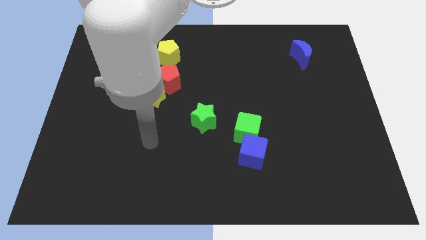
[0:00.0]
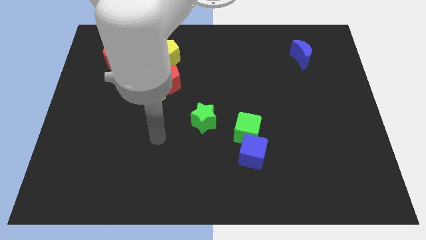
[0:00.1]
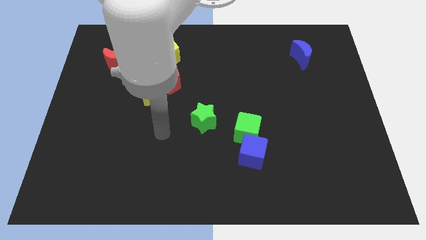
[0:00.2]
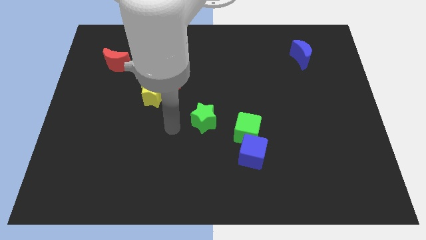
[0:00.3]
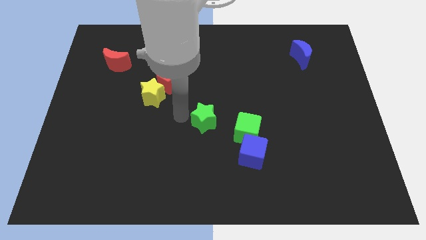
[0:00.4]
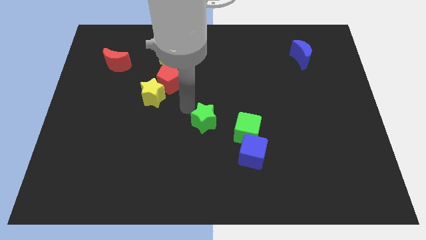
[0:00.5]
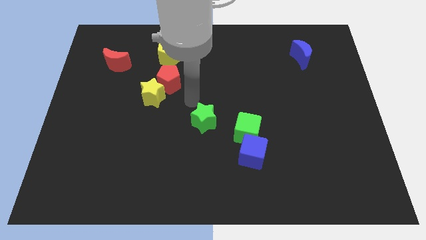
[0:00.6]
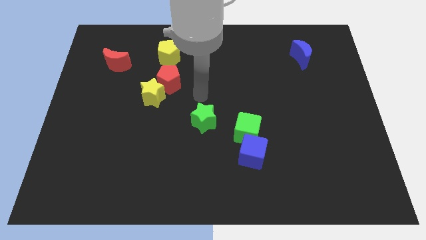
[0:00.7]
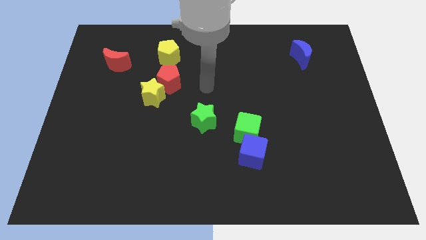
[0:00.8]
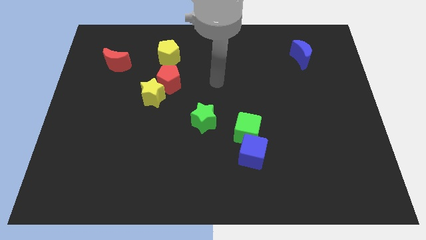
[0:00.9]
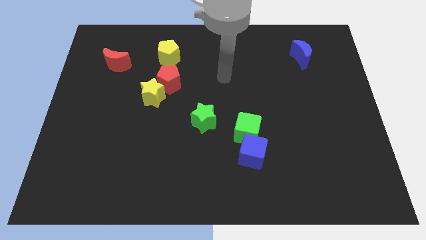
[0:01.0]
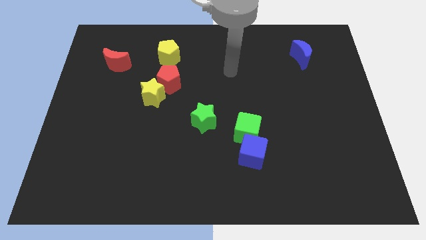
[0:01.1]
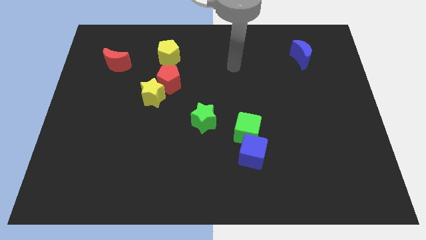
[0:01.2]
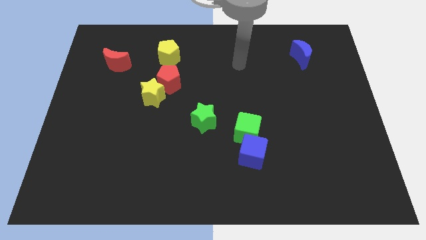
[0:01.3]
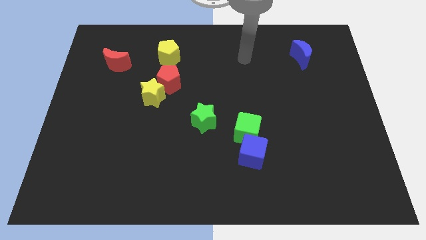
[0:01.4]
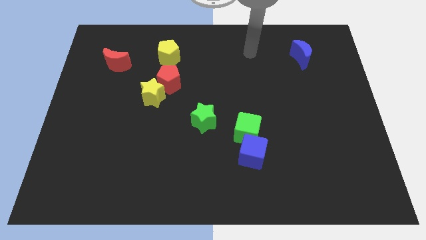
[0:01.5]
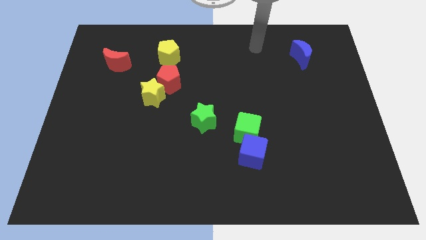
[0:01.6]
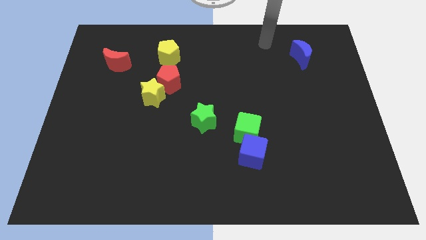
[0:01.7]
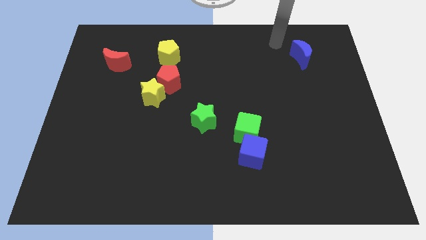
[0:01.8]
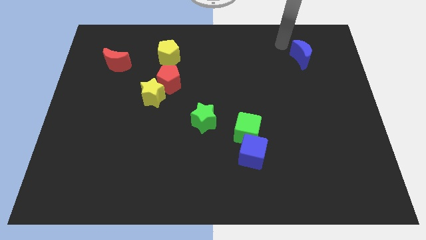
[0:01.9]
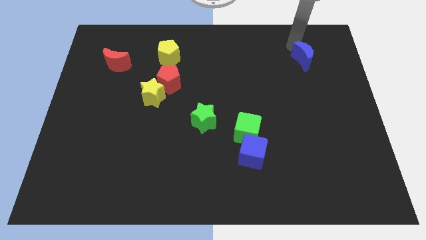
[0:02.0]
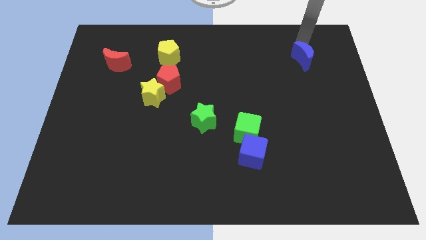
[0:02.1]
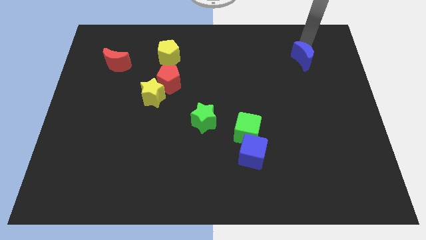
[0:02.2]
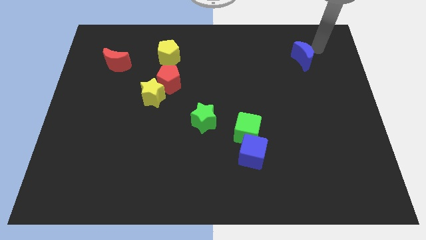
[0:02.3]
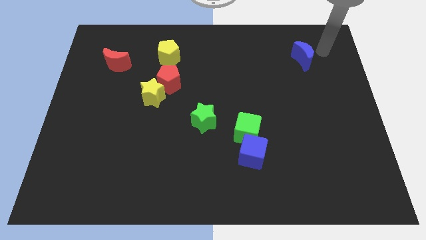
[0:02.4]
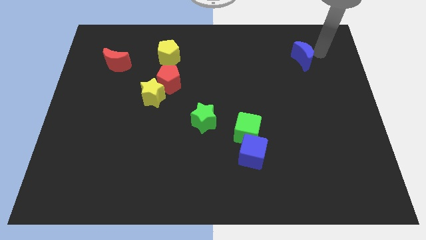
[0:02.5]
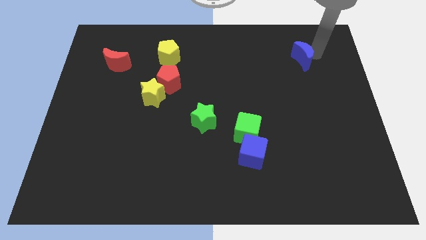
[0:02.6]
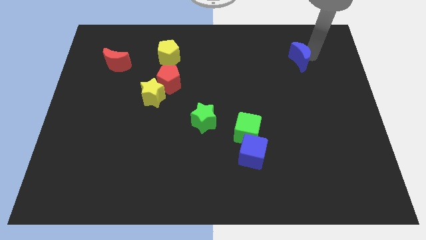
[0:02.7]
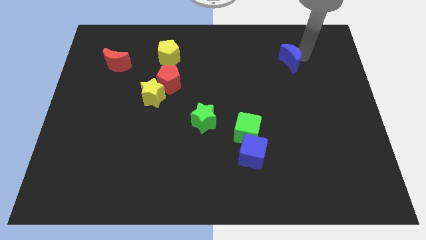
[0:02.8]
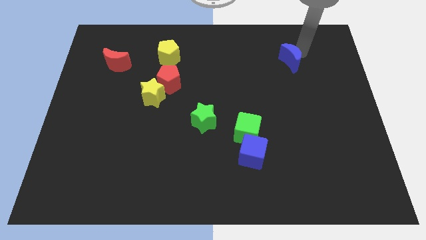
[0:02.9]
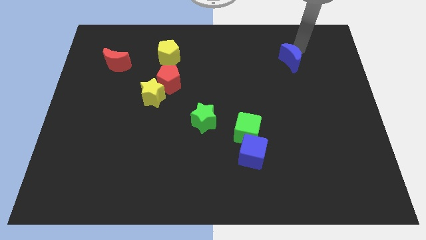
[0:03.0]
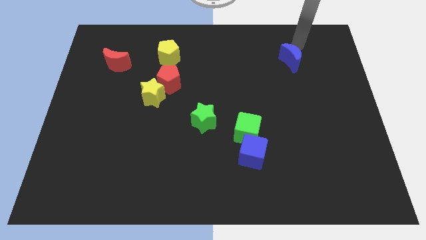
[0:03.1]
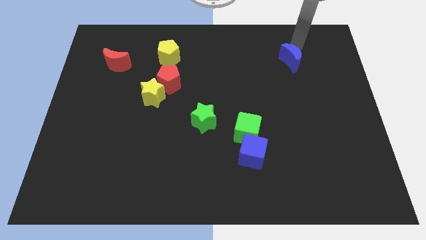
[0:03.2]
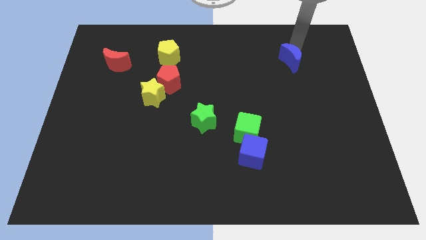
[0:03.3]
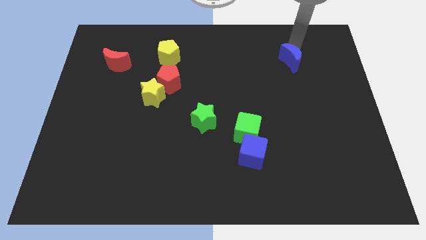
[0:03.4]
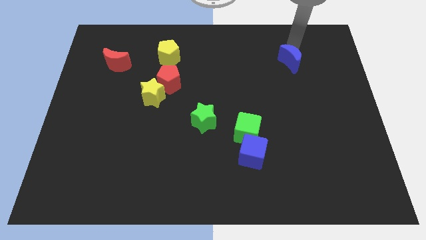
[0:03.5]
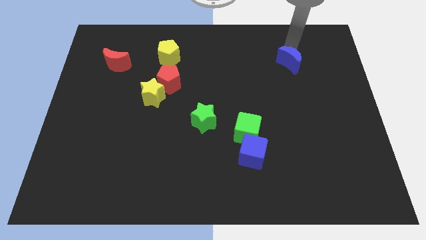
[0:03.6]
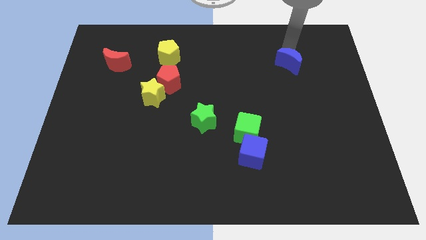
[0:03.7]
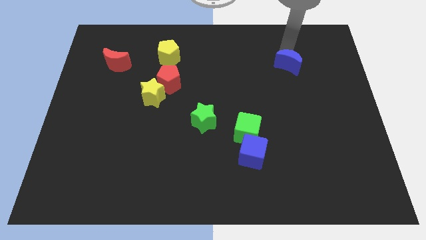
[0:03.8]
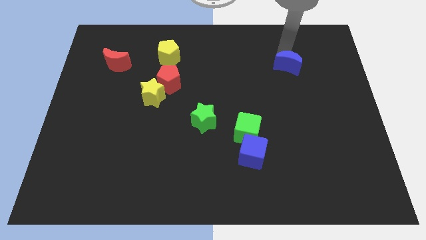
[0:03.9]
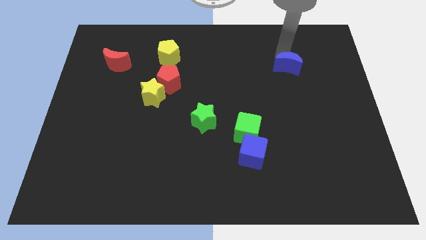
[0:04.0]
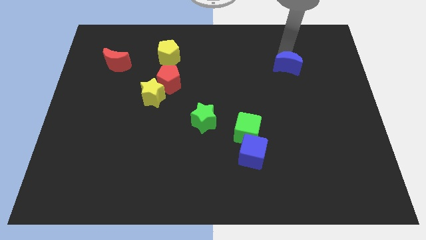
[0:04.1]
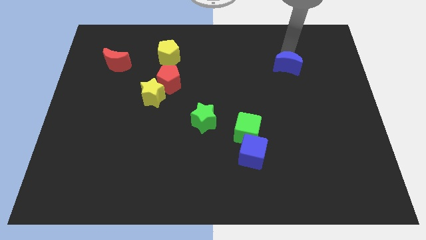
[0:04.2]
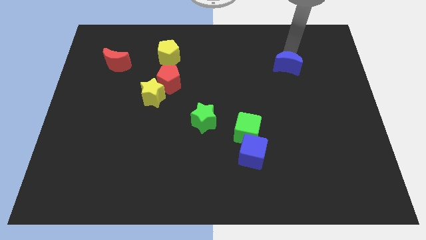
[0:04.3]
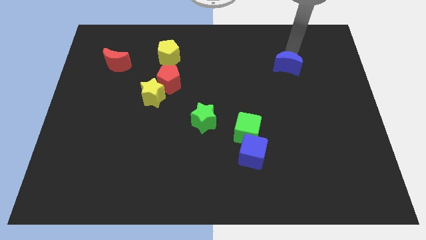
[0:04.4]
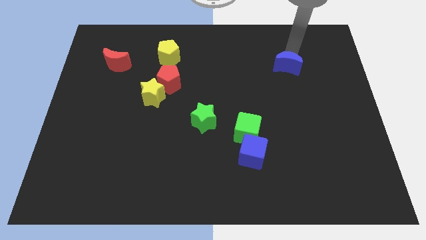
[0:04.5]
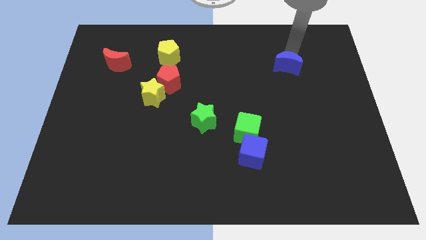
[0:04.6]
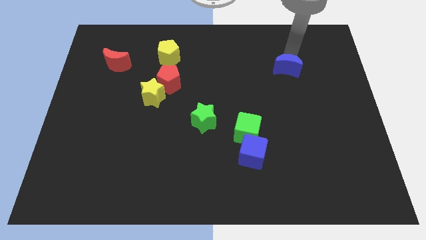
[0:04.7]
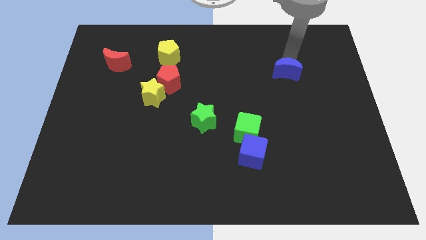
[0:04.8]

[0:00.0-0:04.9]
move the blue moon slightly downwards and to the left diagonally

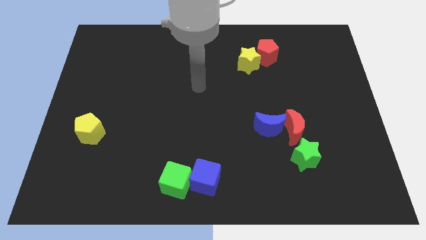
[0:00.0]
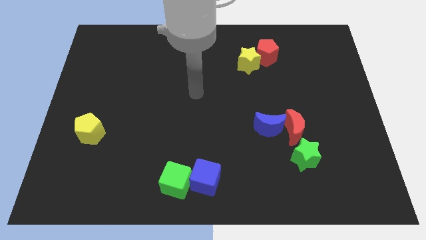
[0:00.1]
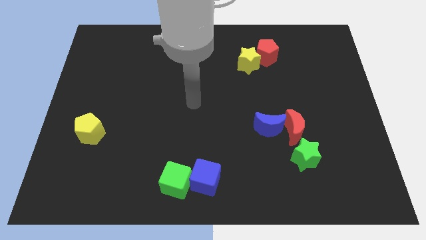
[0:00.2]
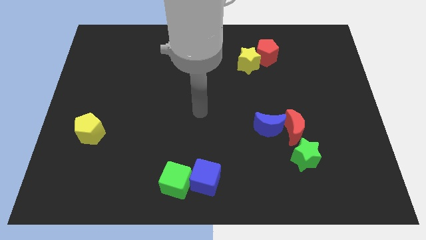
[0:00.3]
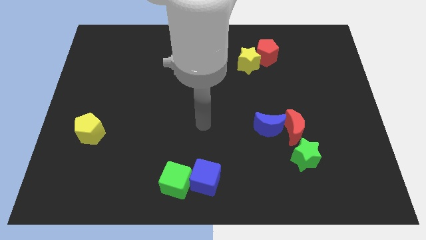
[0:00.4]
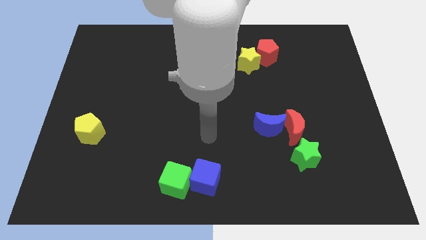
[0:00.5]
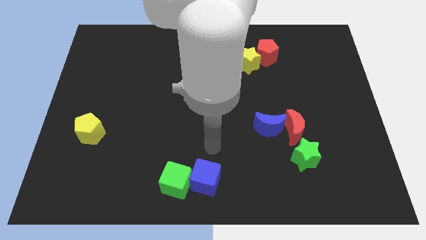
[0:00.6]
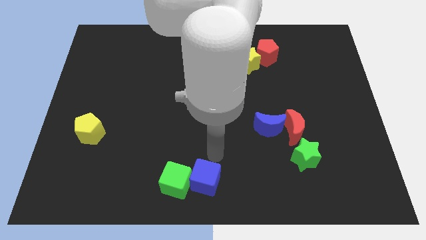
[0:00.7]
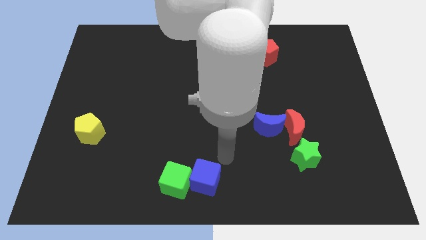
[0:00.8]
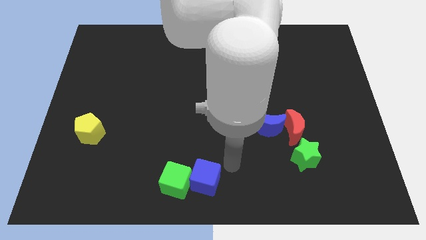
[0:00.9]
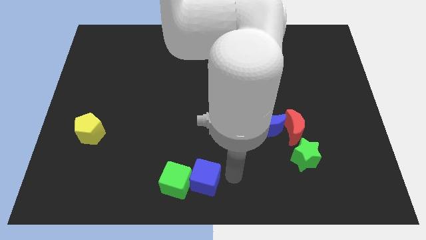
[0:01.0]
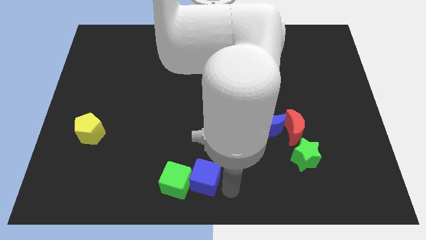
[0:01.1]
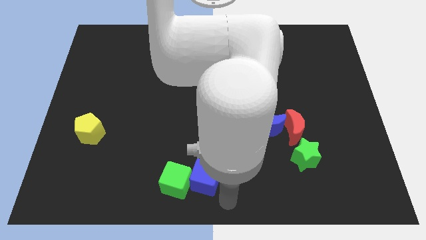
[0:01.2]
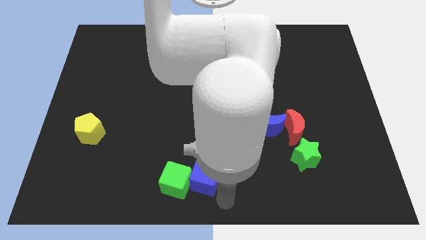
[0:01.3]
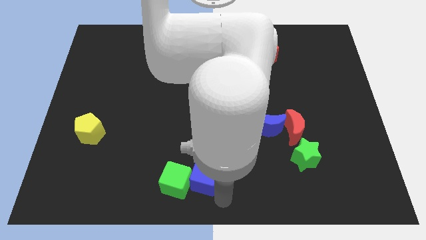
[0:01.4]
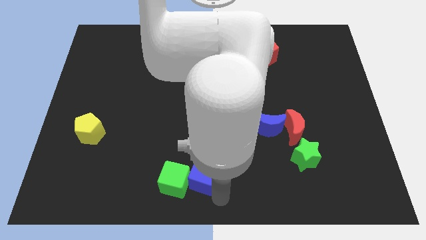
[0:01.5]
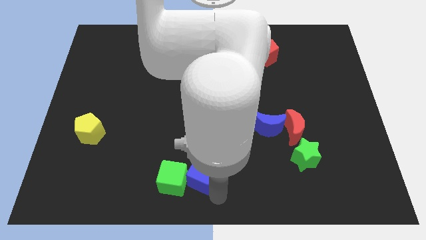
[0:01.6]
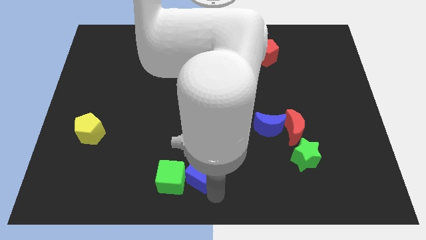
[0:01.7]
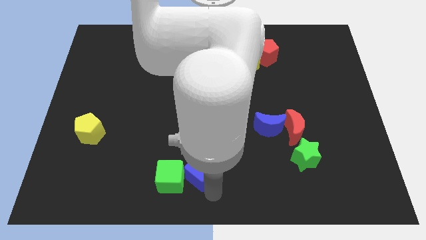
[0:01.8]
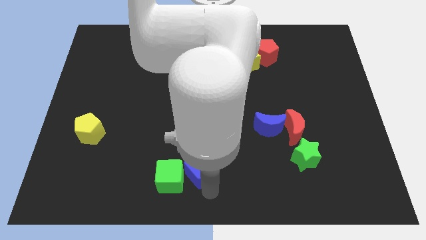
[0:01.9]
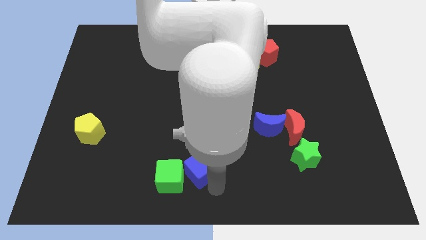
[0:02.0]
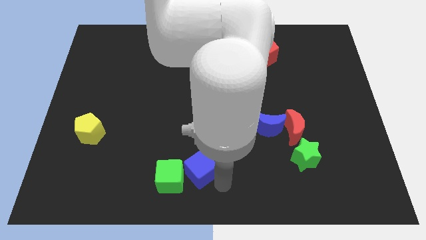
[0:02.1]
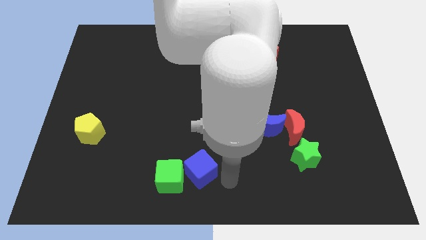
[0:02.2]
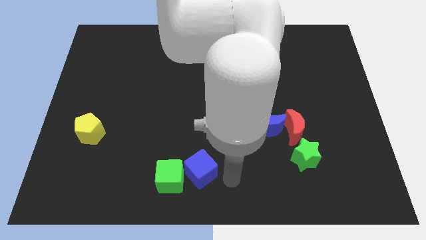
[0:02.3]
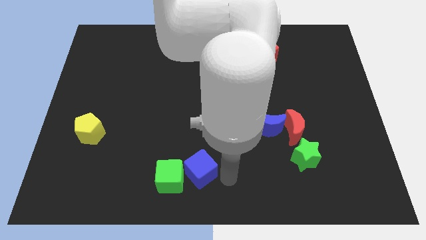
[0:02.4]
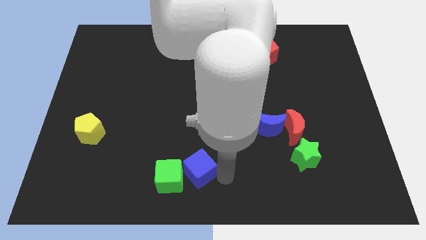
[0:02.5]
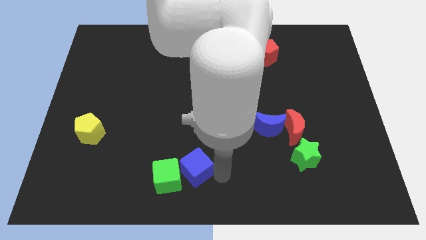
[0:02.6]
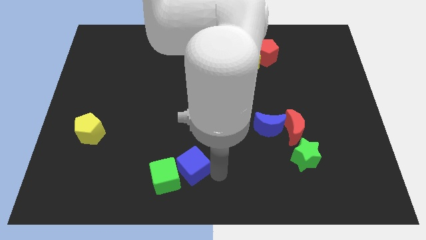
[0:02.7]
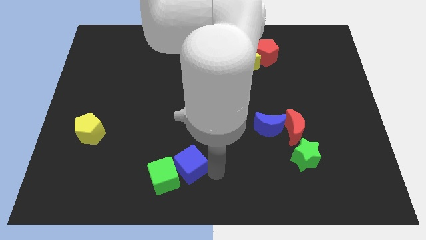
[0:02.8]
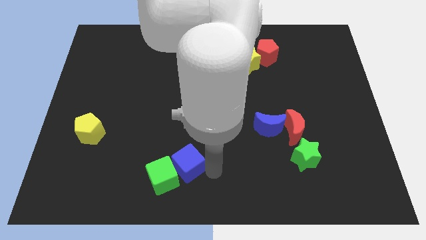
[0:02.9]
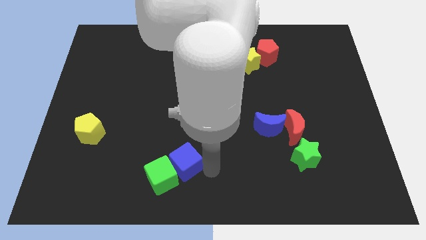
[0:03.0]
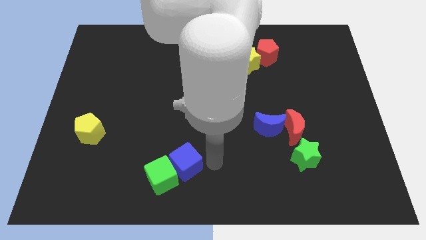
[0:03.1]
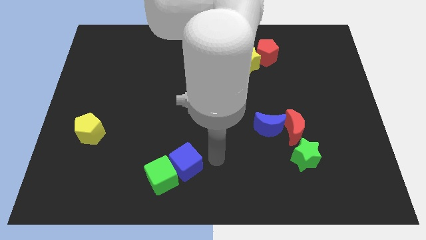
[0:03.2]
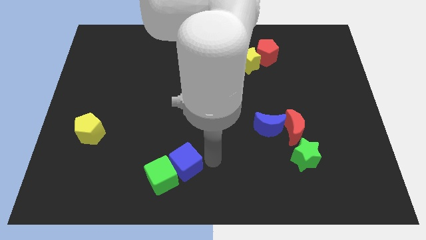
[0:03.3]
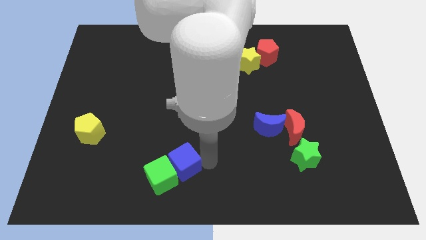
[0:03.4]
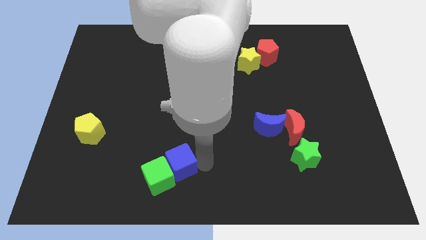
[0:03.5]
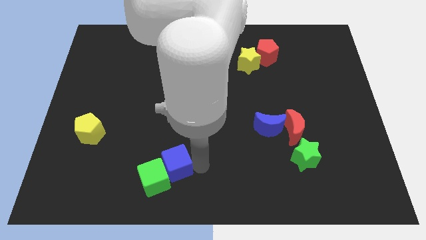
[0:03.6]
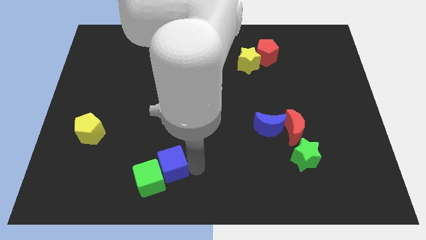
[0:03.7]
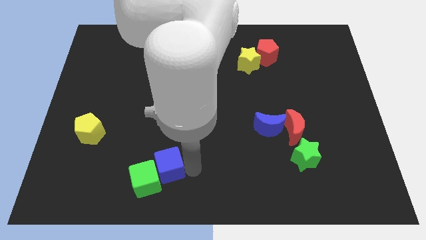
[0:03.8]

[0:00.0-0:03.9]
slide the blue cube a bit to the left
